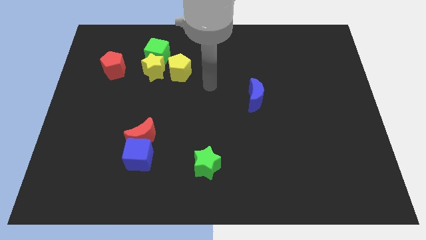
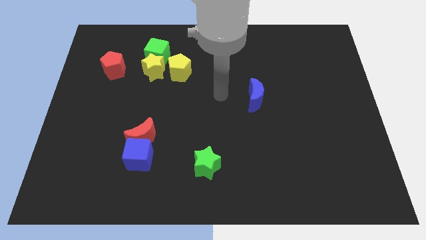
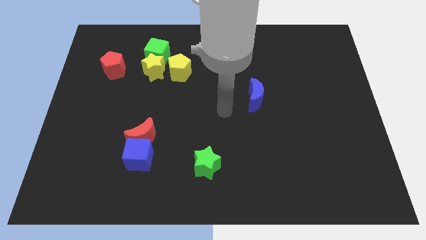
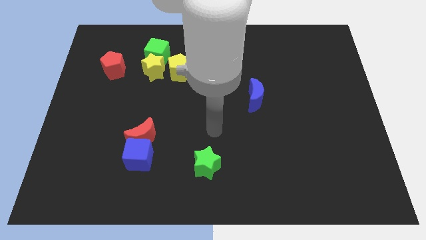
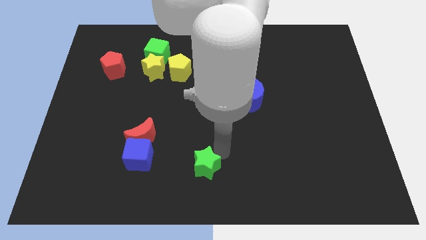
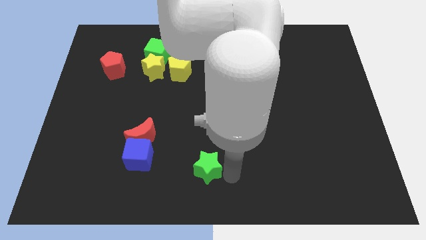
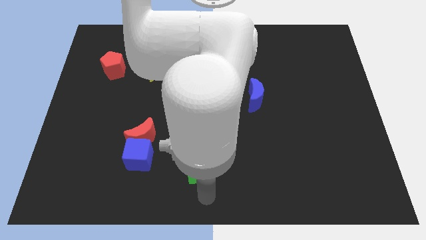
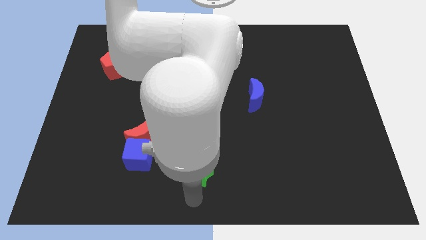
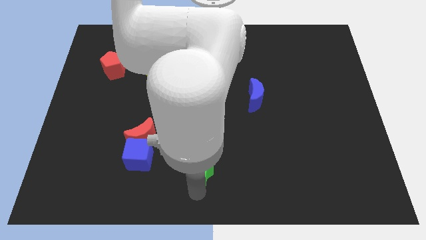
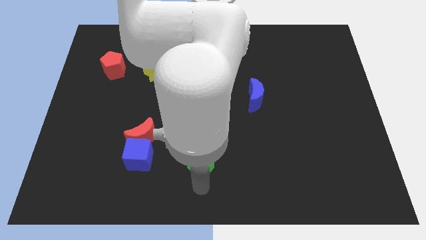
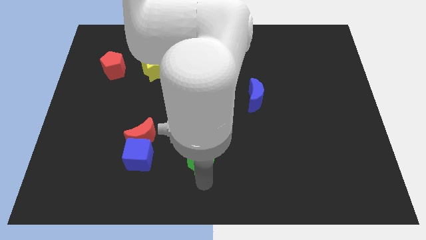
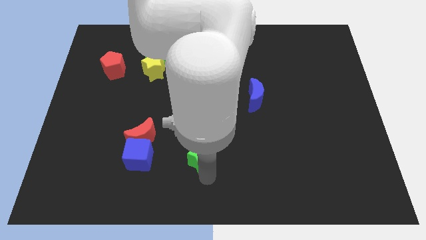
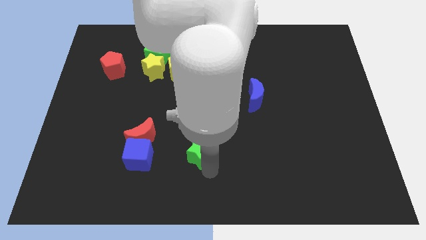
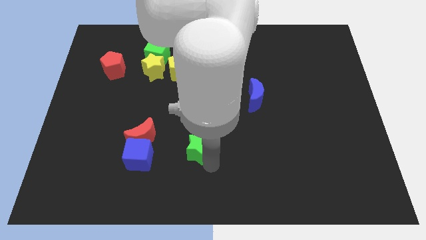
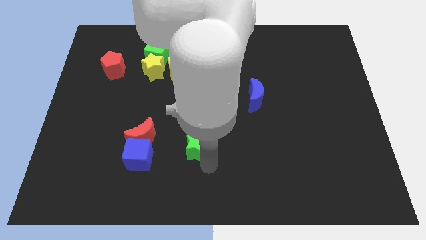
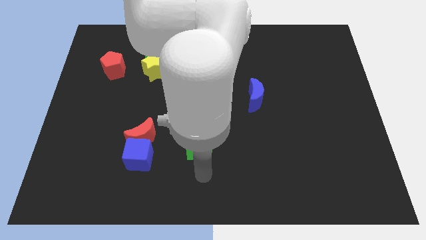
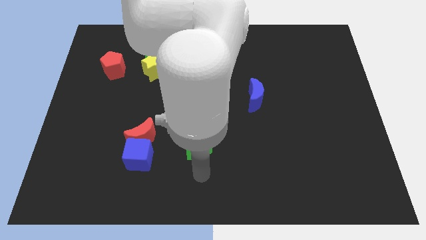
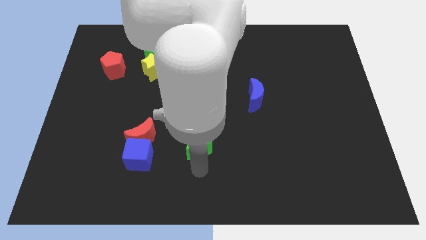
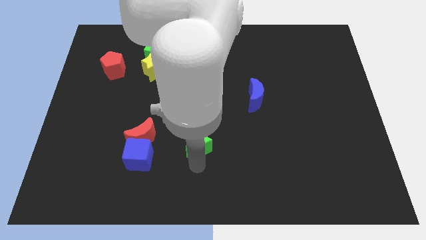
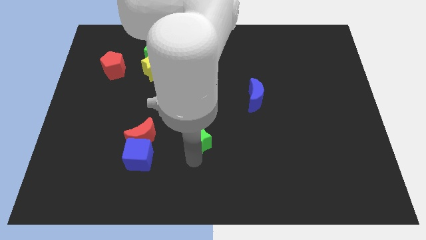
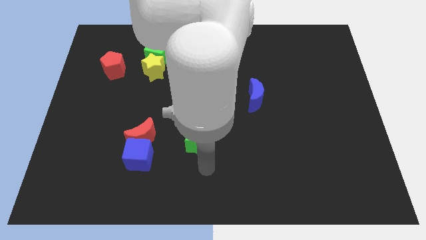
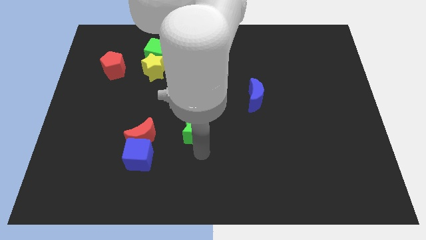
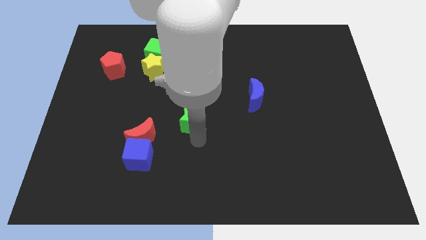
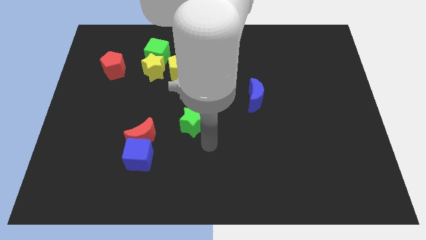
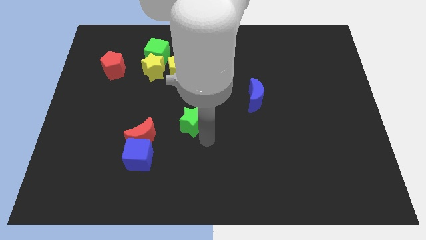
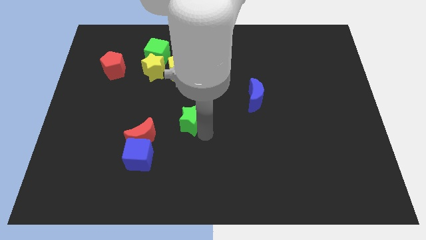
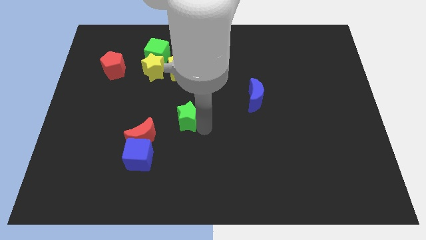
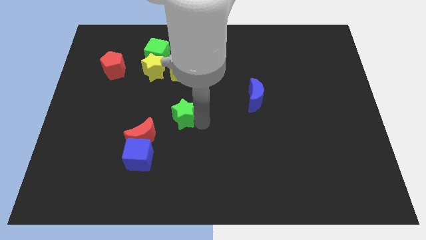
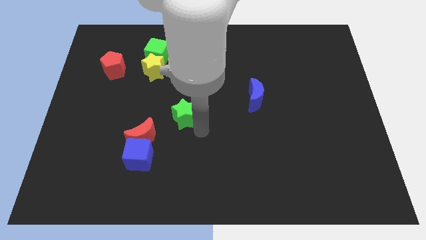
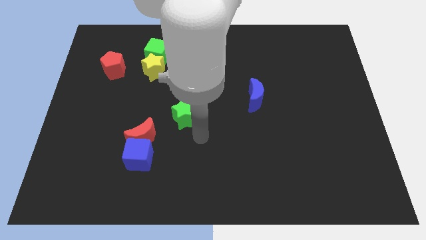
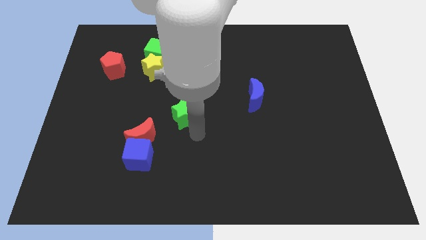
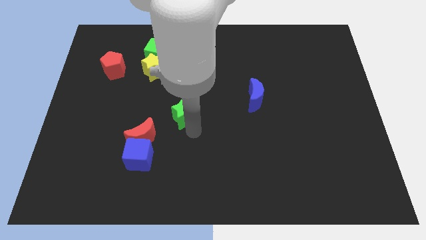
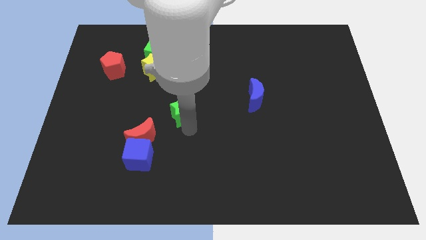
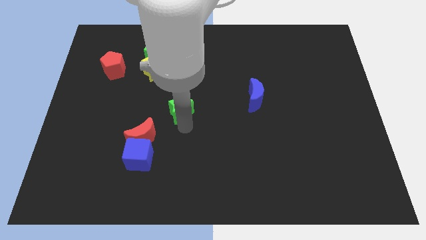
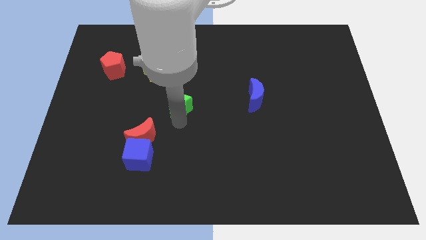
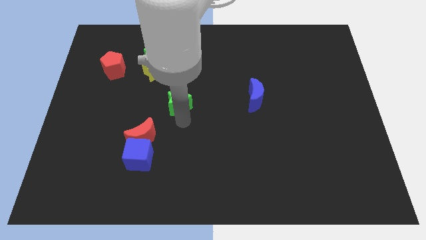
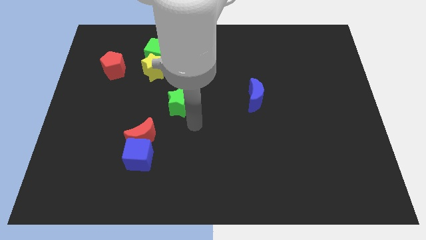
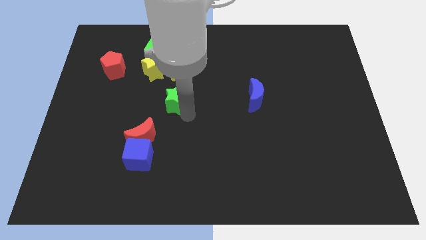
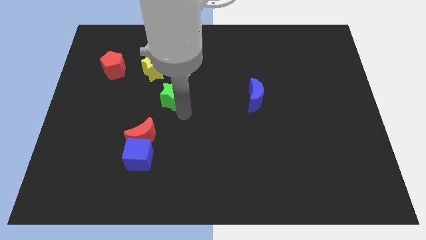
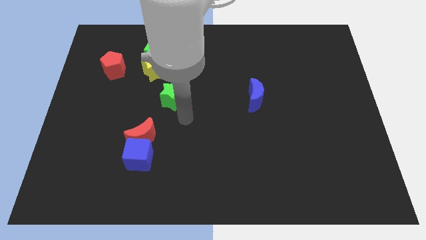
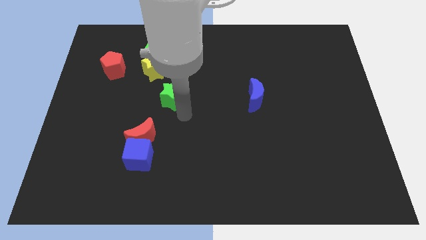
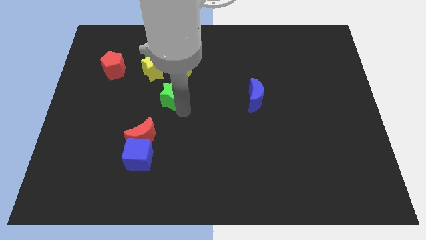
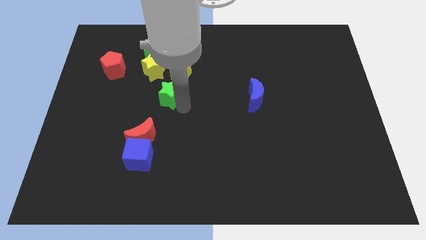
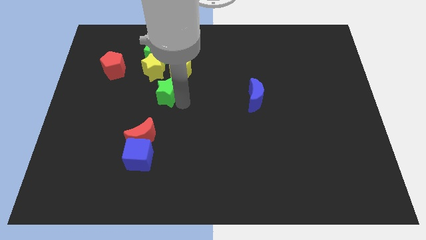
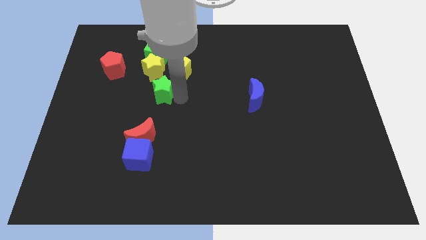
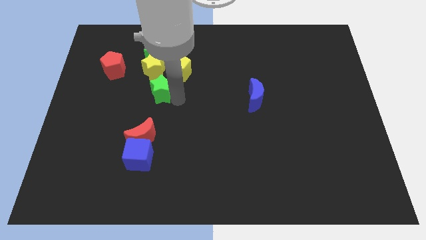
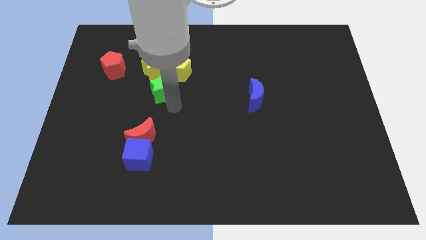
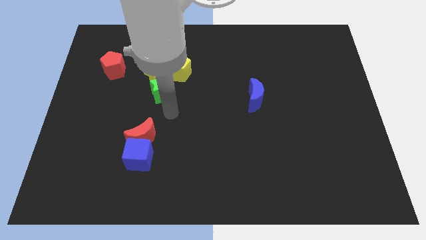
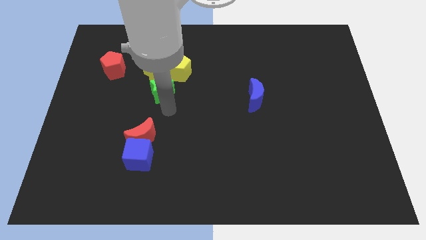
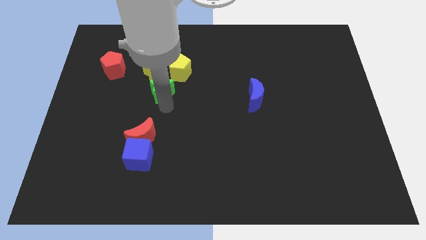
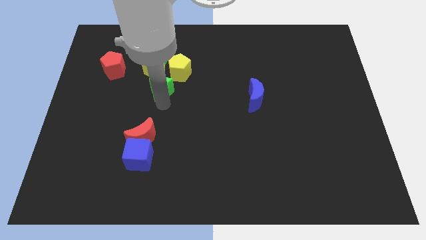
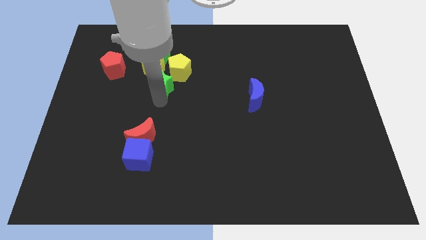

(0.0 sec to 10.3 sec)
move the green star next to the yellow star

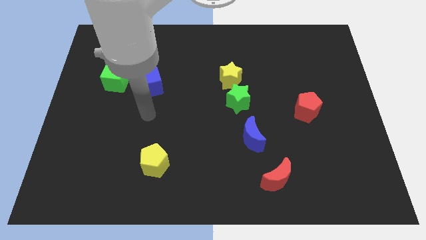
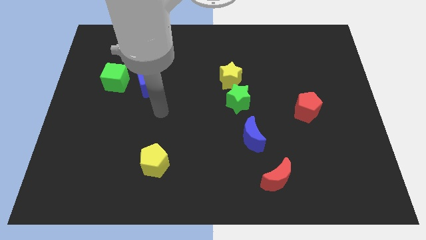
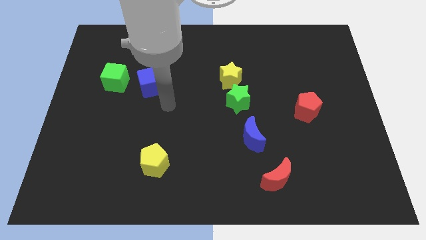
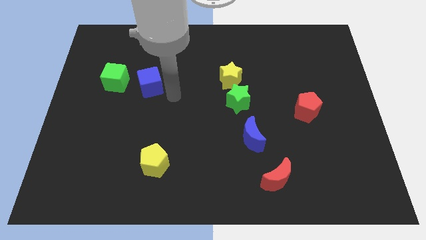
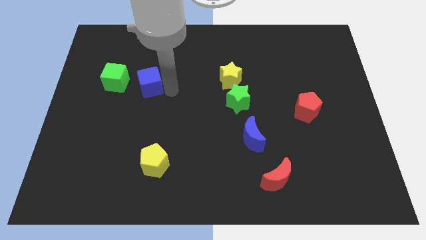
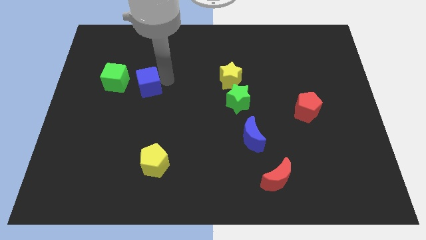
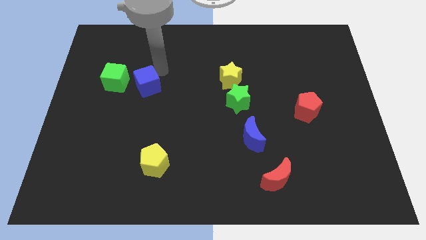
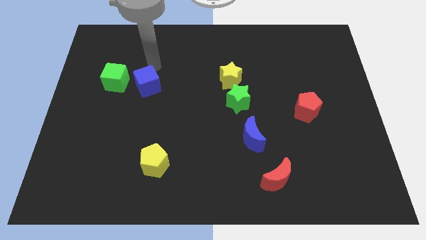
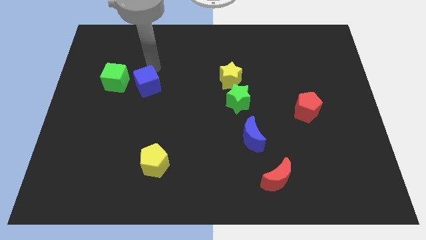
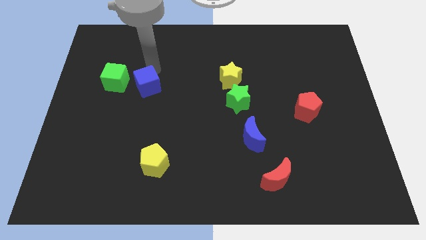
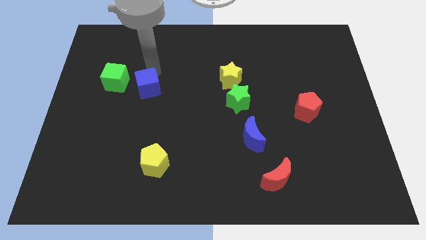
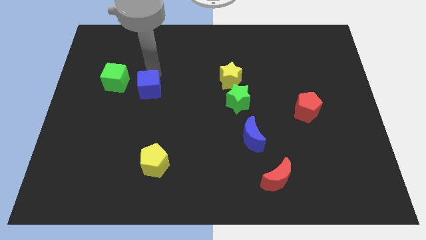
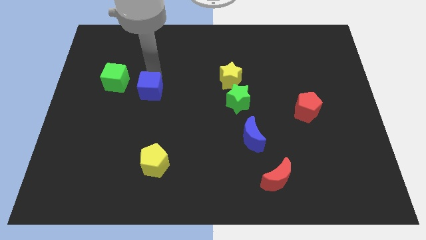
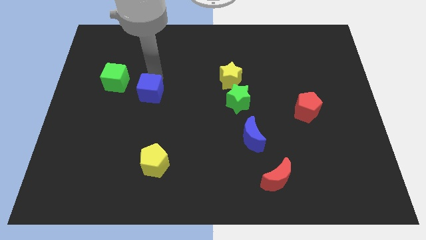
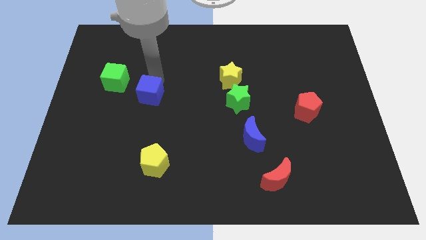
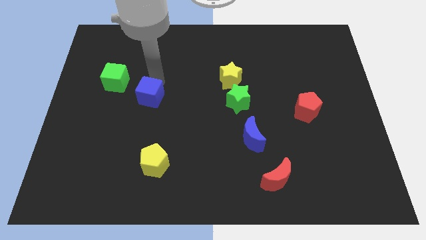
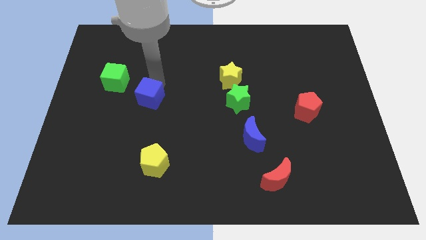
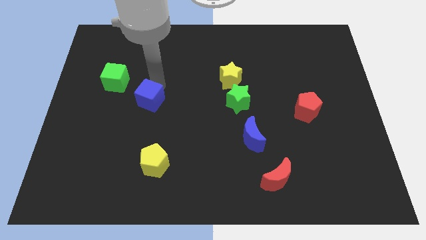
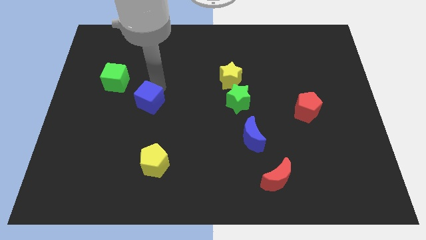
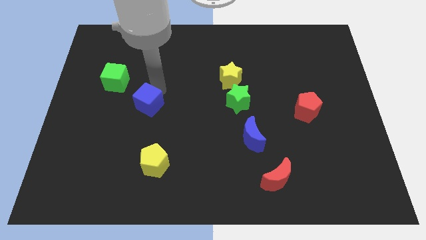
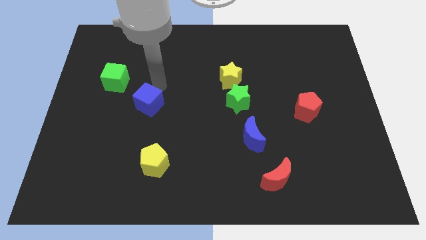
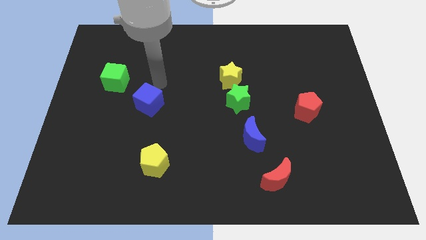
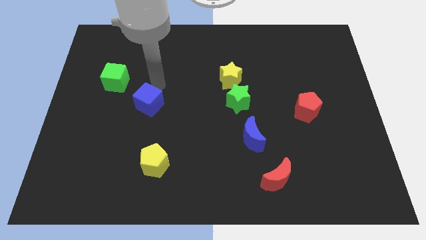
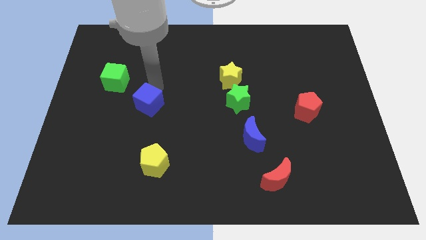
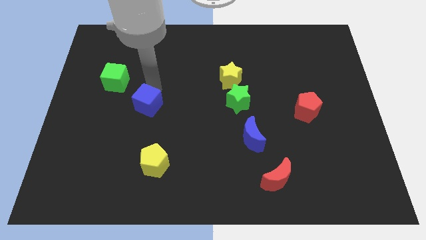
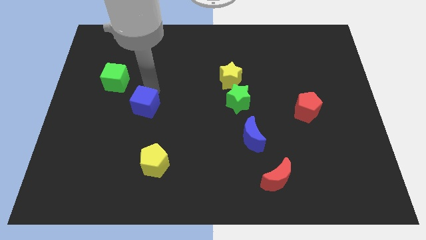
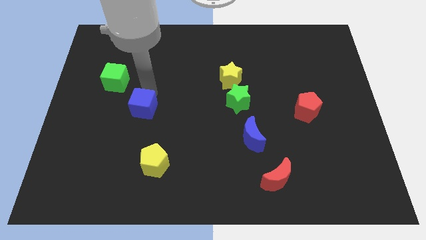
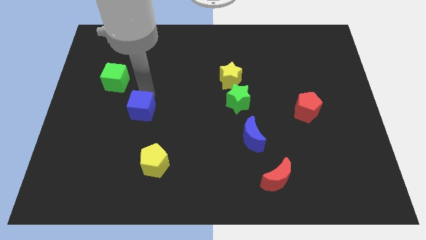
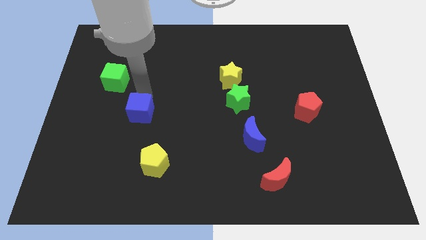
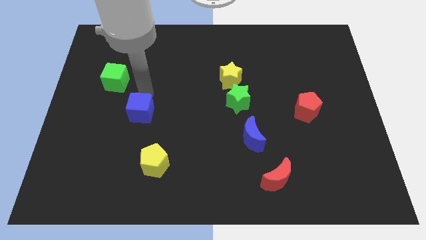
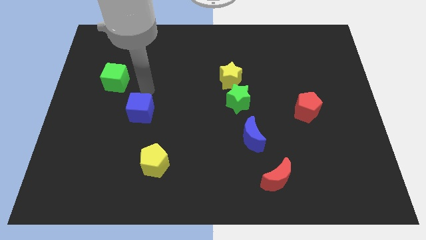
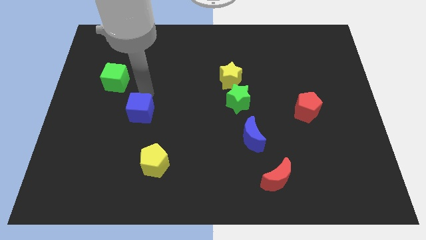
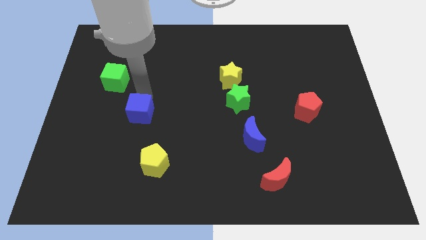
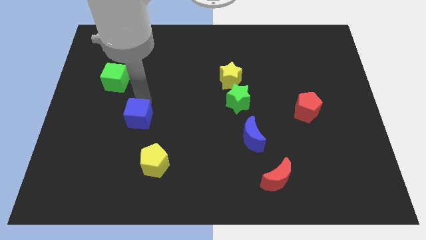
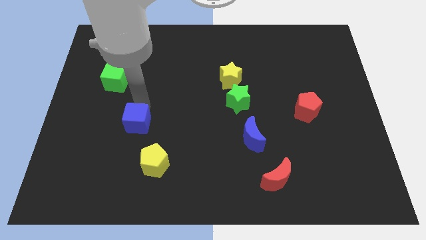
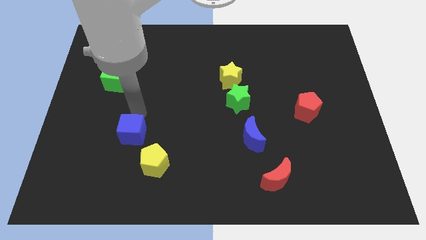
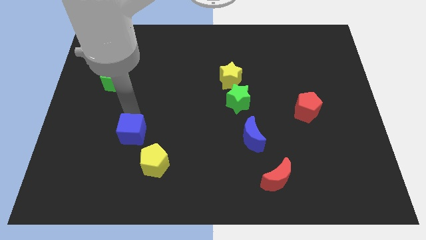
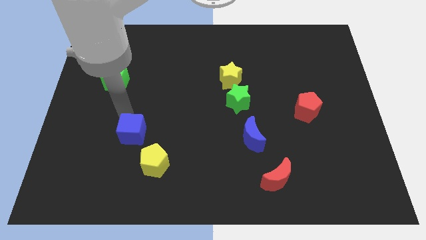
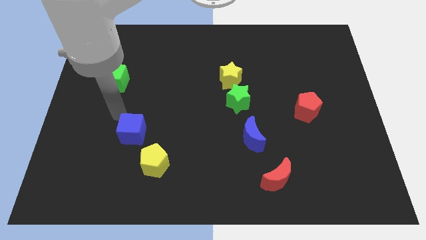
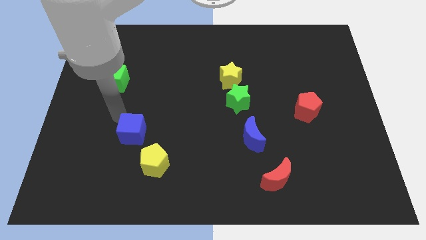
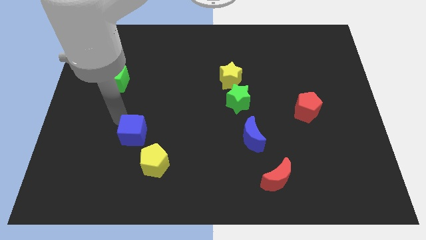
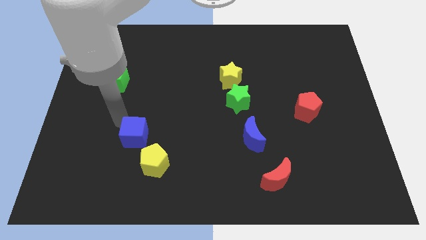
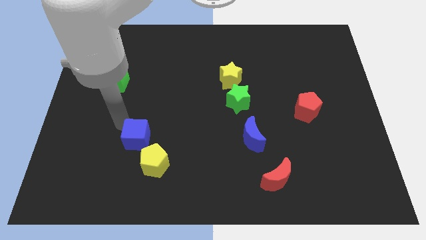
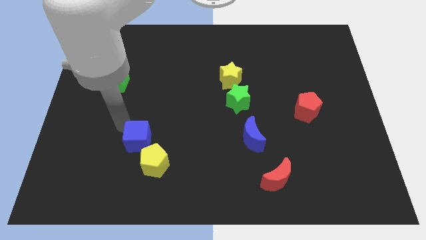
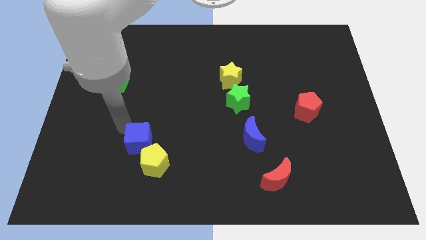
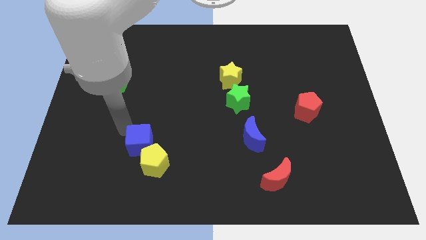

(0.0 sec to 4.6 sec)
slide the blue cube next to the yellow pentagon
